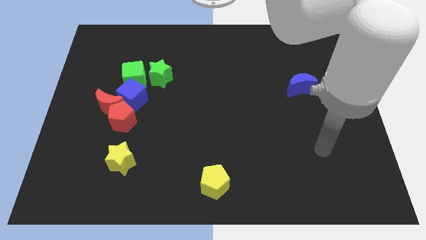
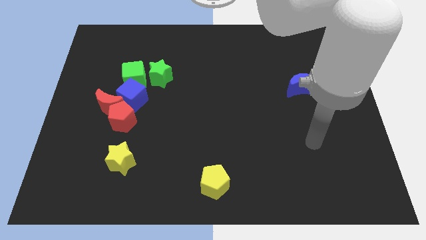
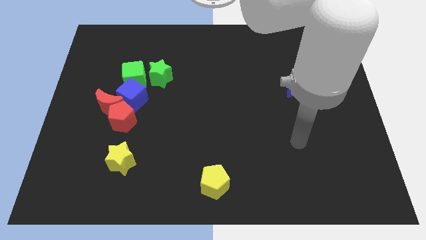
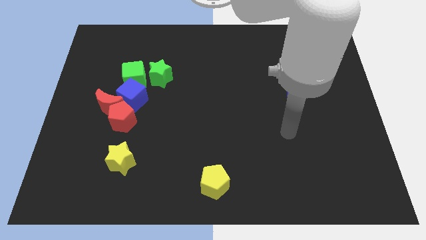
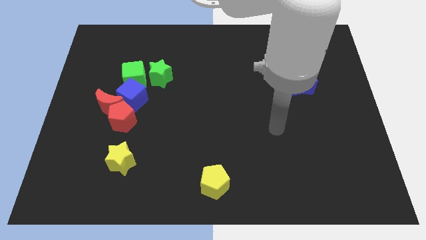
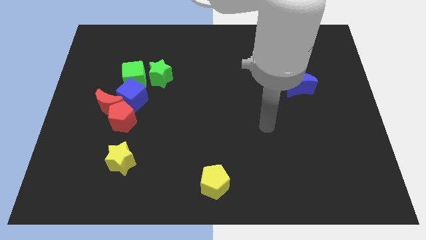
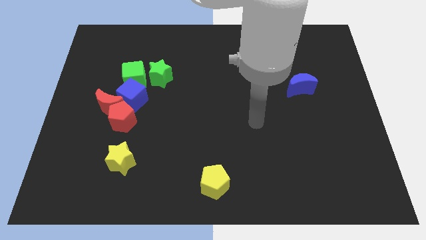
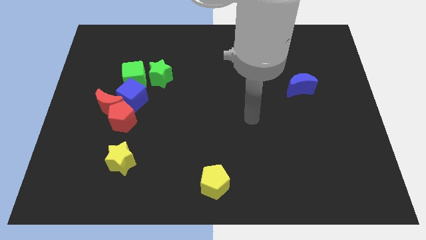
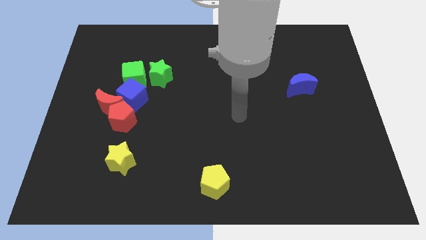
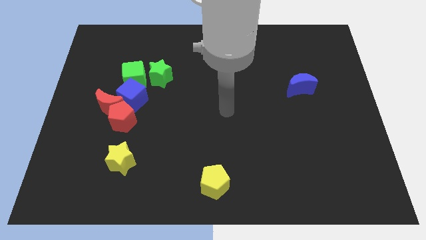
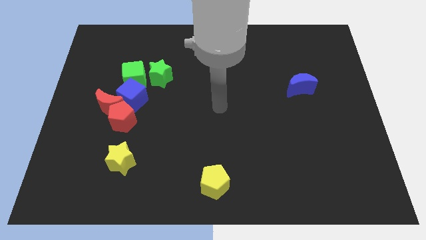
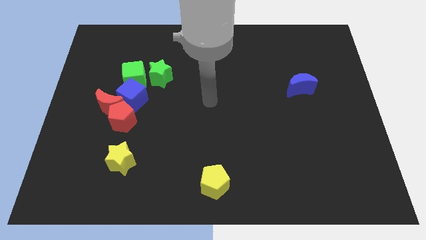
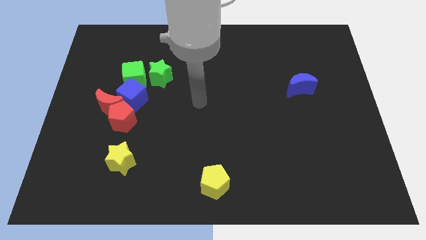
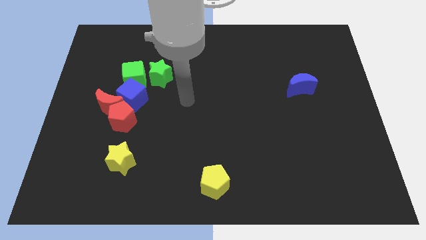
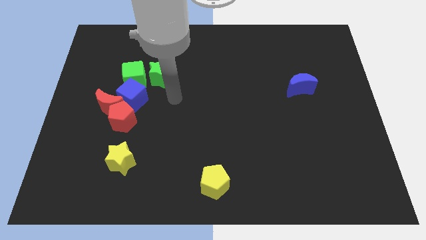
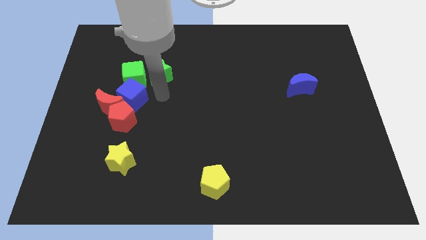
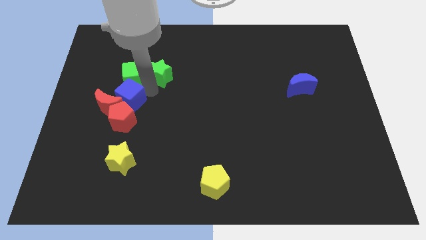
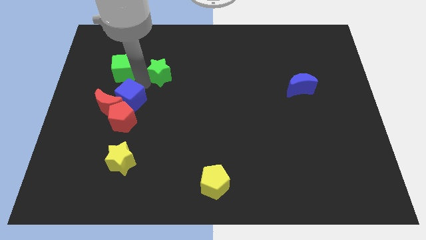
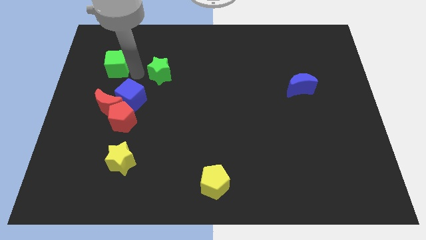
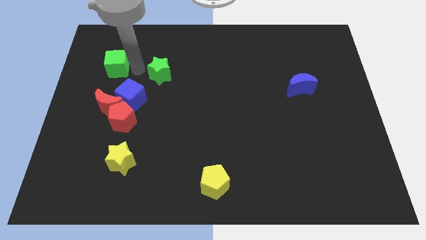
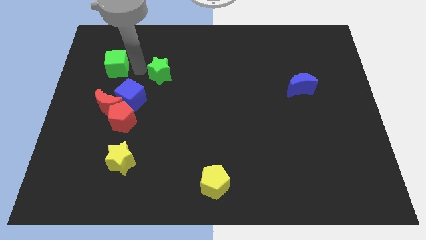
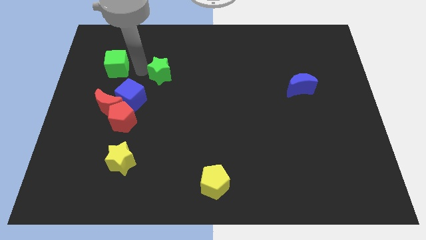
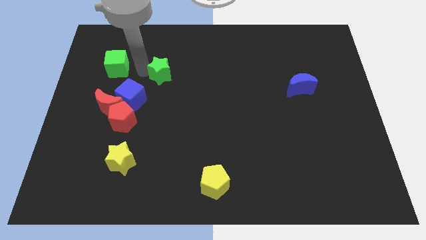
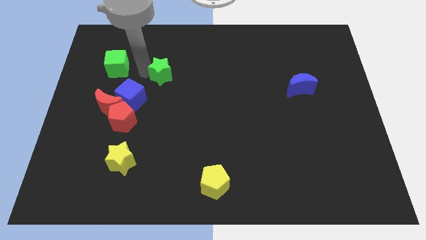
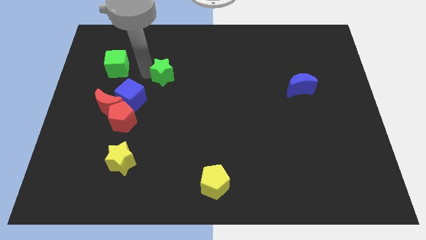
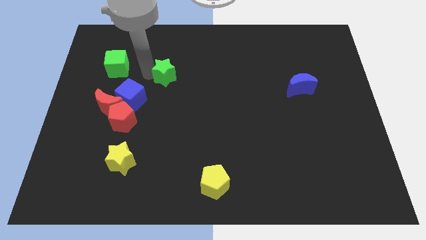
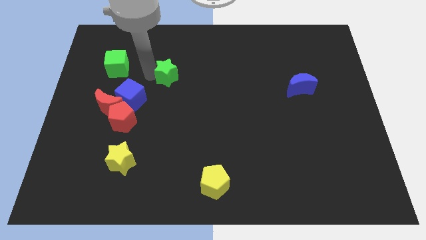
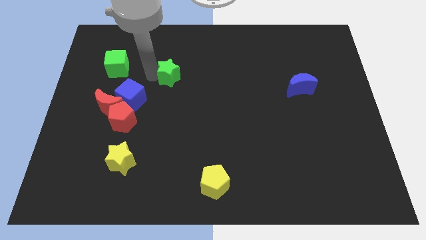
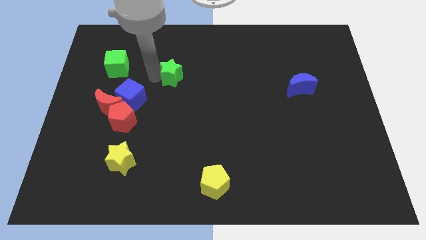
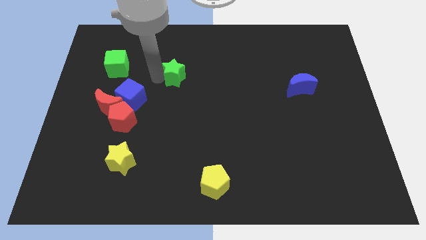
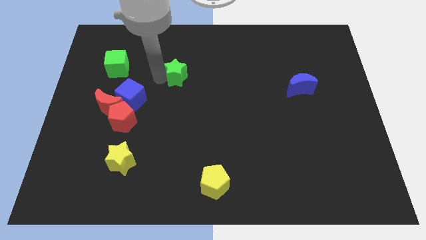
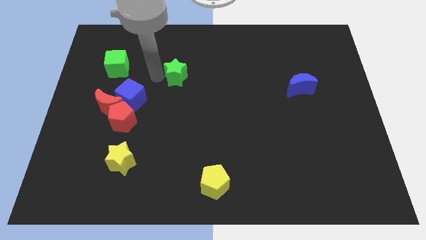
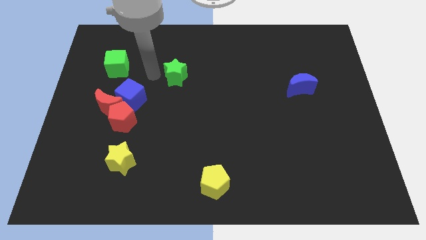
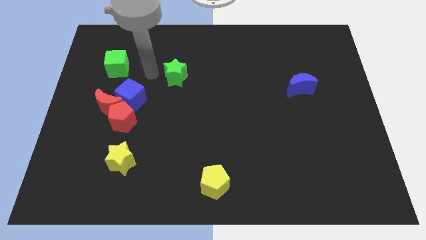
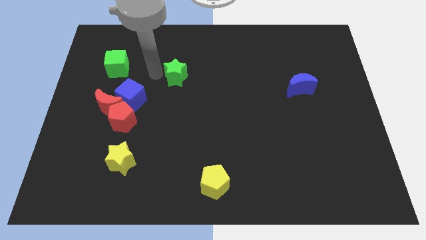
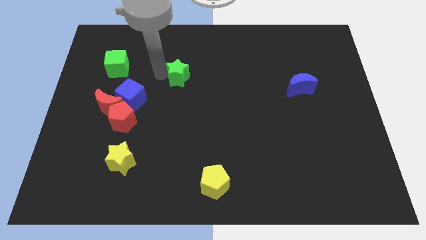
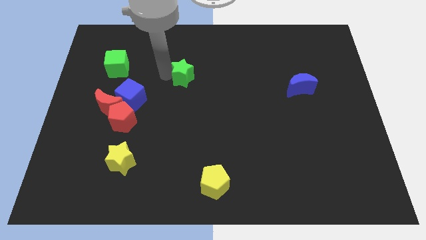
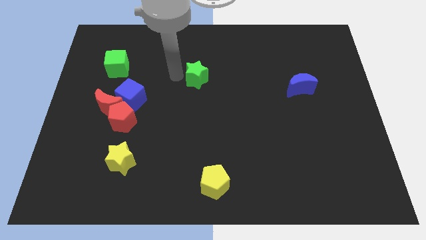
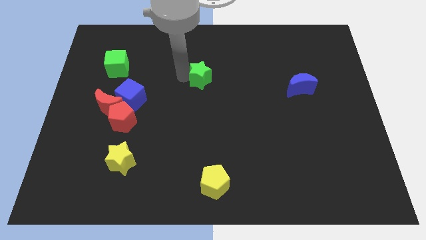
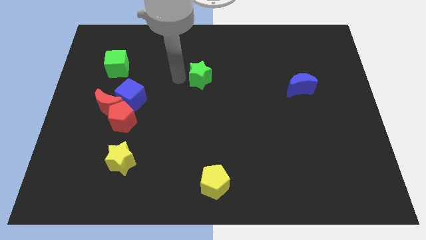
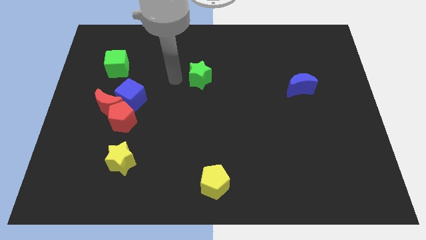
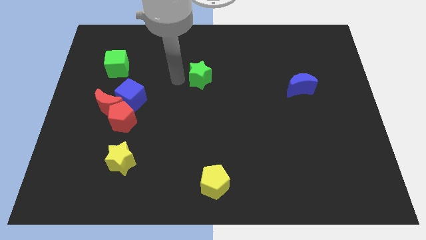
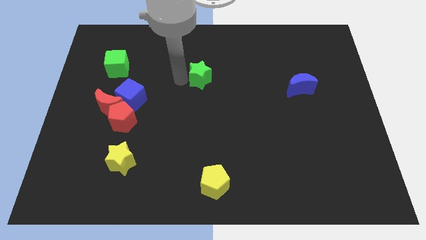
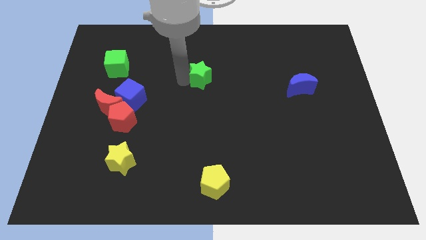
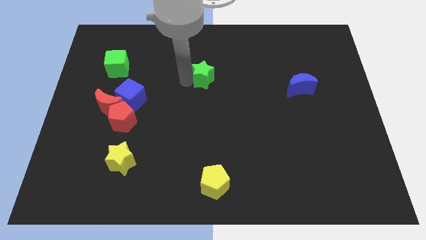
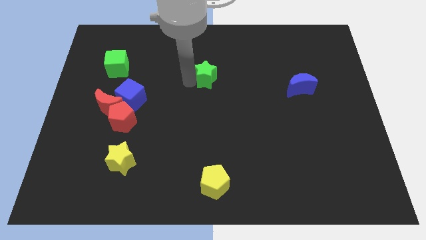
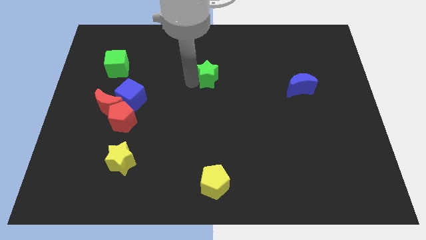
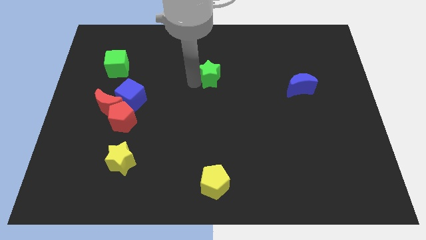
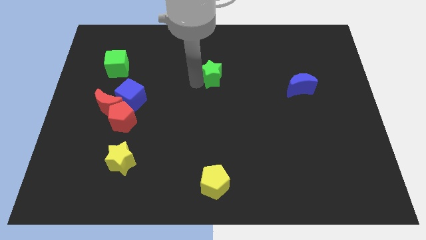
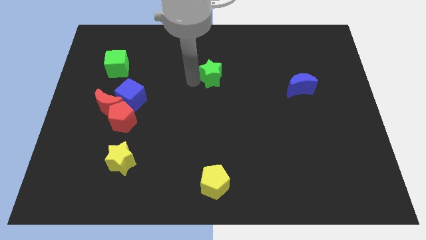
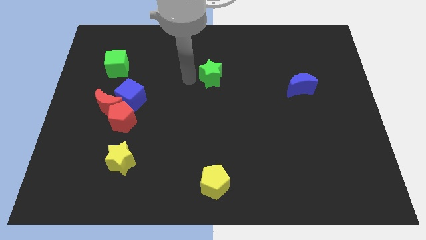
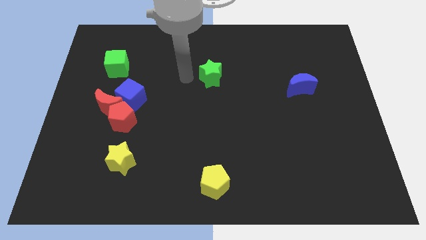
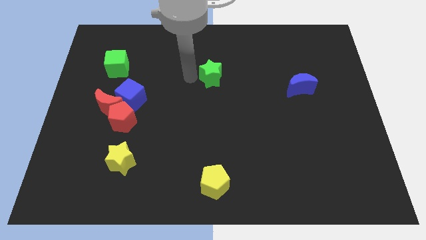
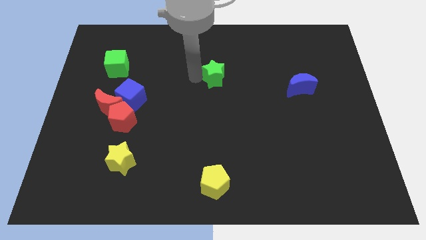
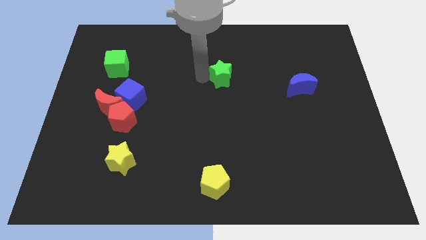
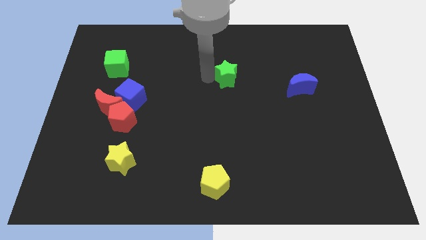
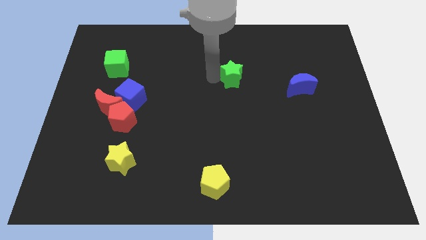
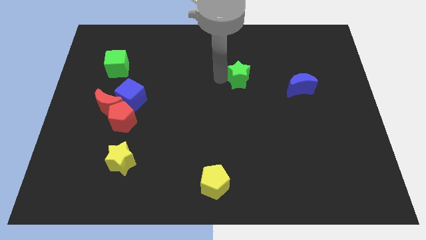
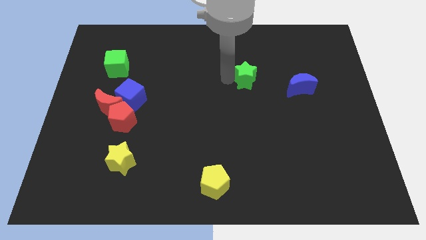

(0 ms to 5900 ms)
move the green star right

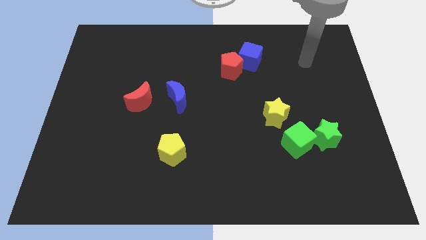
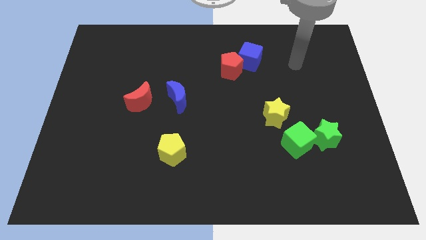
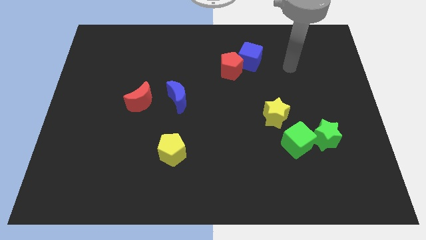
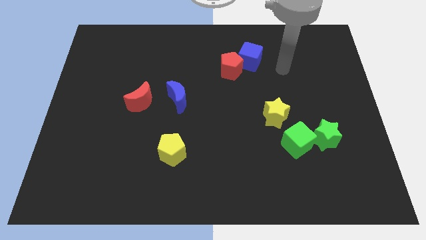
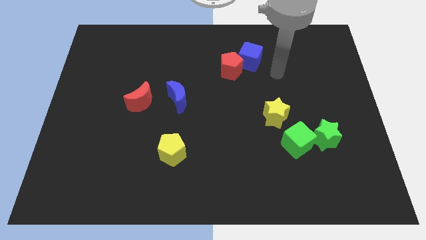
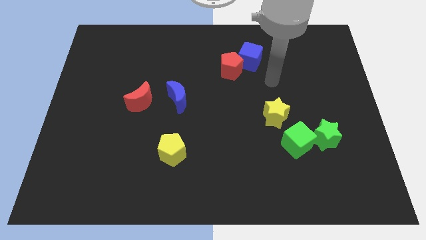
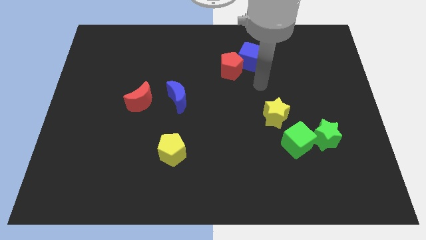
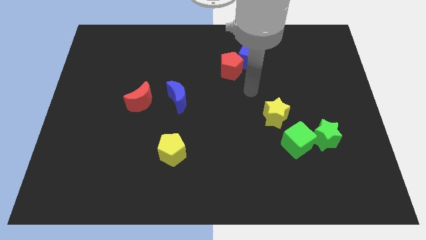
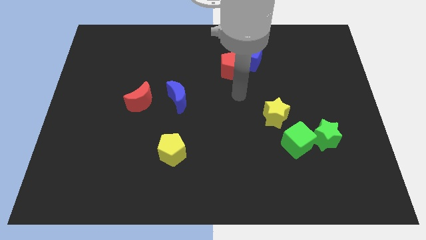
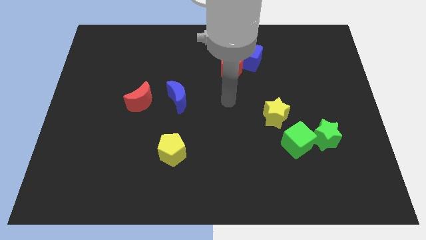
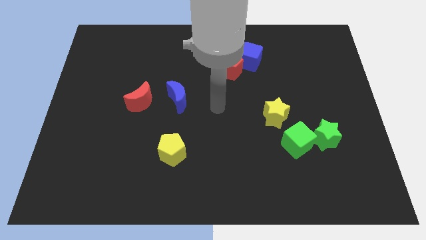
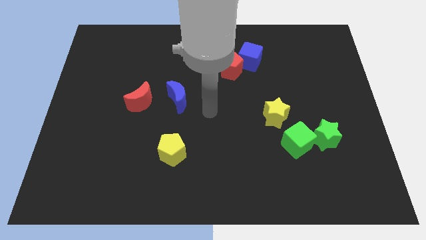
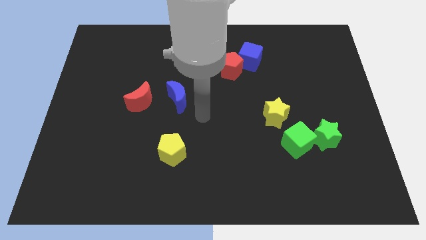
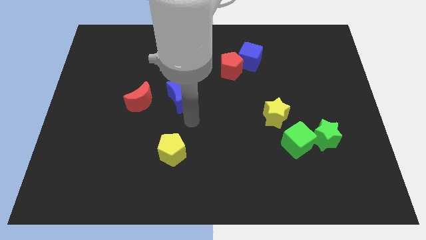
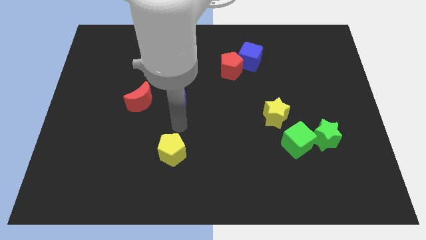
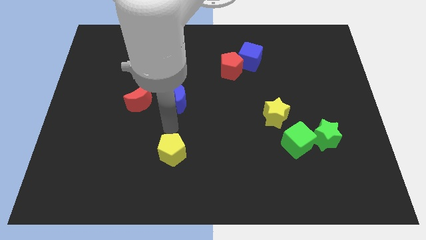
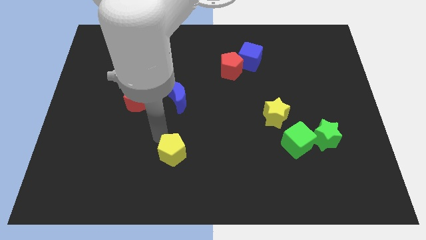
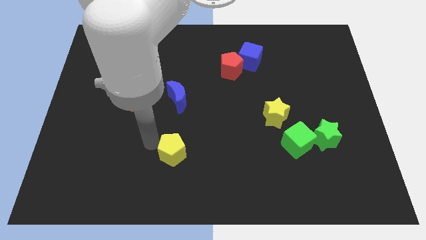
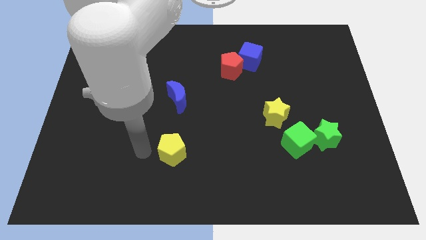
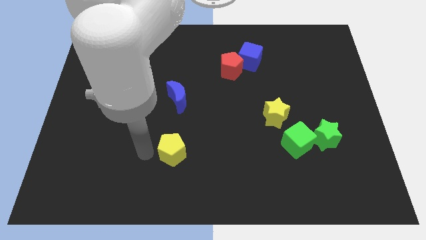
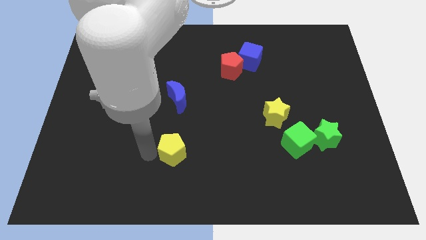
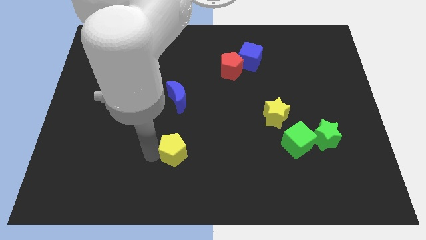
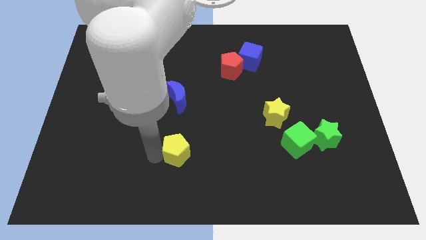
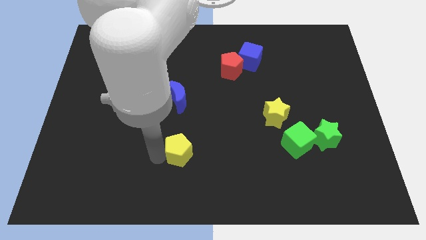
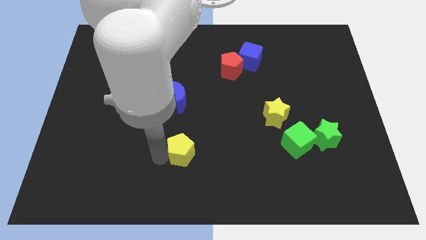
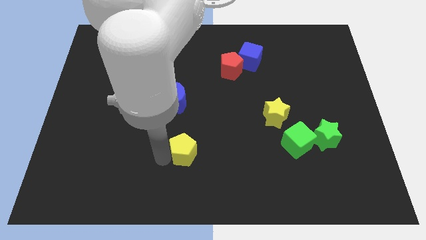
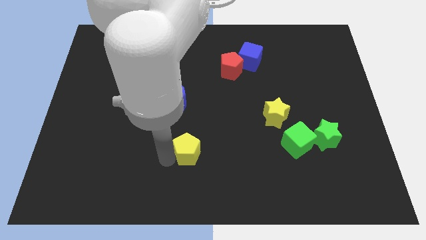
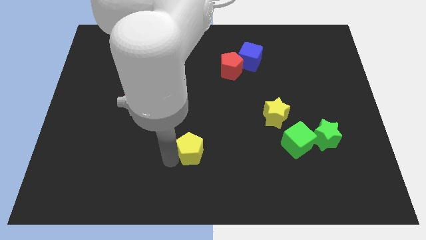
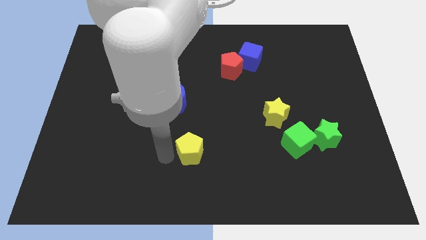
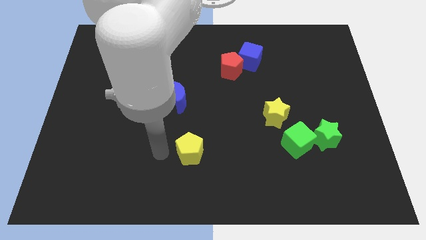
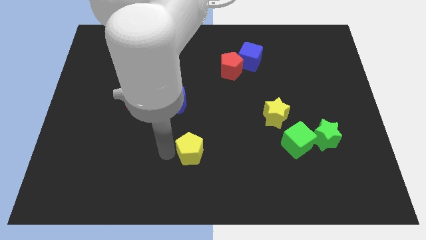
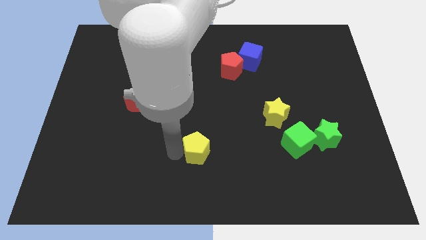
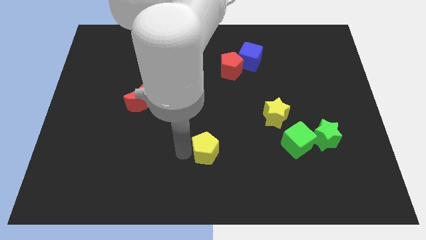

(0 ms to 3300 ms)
move the yellow pentagon a little right
